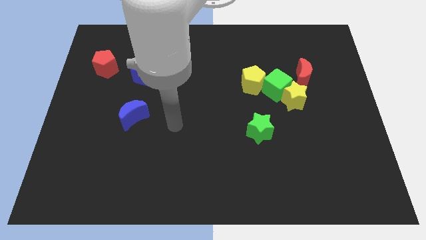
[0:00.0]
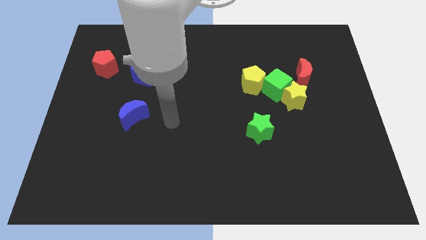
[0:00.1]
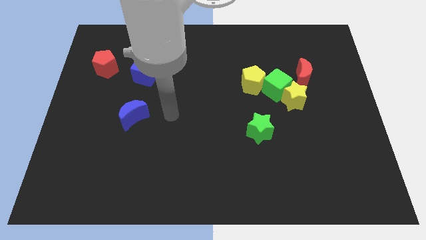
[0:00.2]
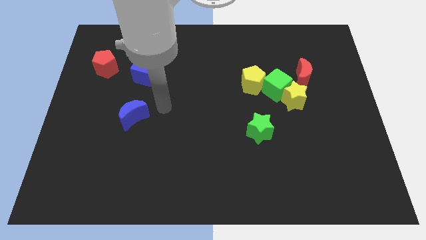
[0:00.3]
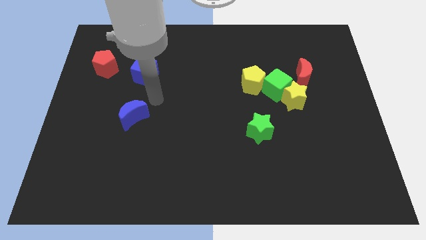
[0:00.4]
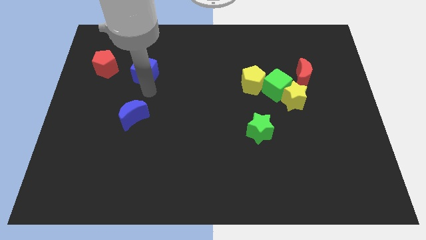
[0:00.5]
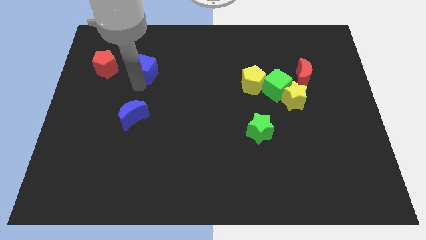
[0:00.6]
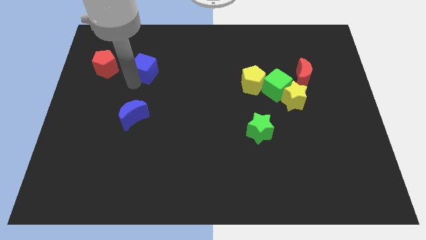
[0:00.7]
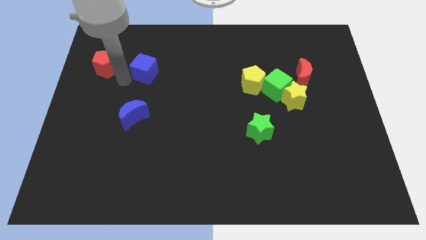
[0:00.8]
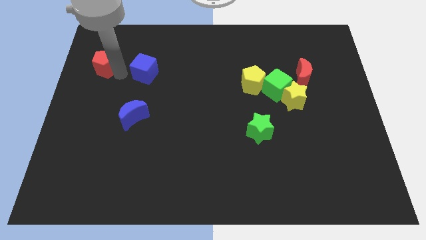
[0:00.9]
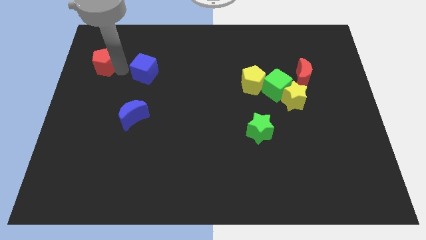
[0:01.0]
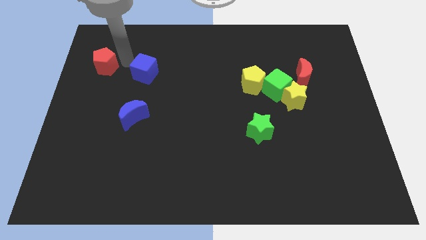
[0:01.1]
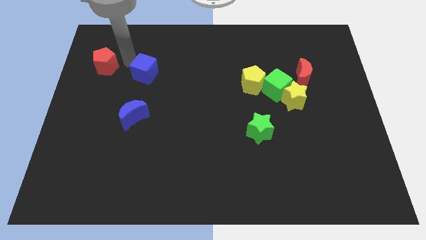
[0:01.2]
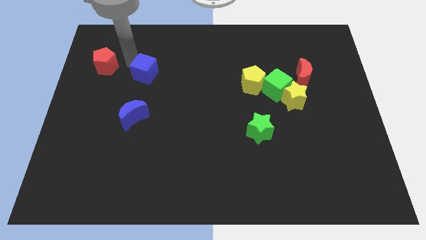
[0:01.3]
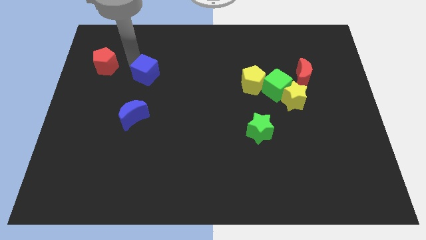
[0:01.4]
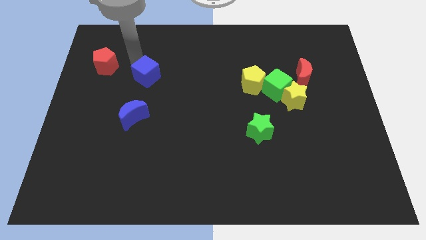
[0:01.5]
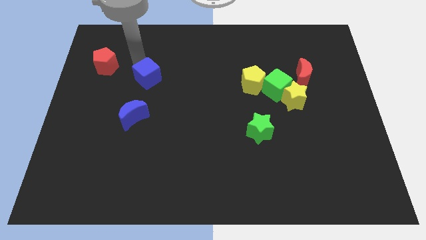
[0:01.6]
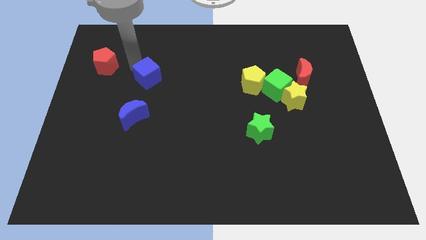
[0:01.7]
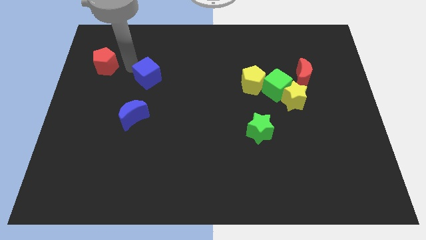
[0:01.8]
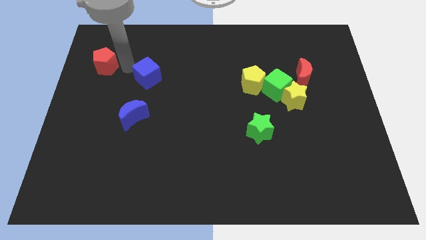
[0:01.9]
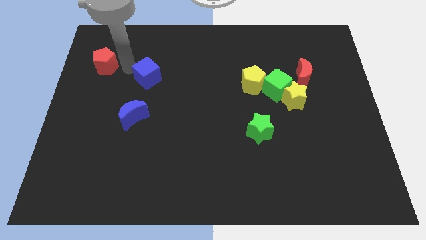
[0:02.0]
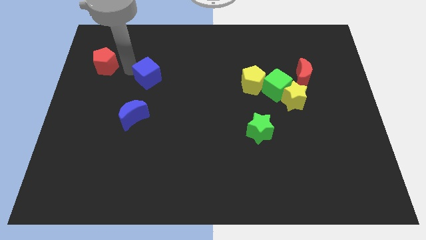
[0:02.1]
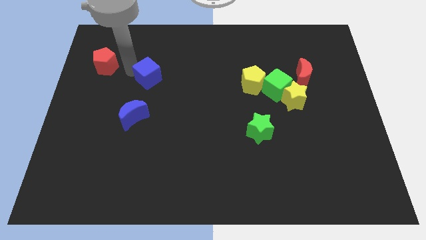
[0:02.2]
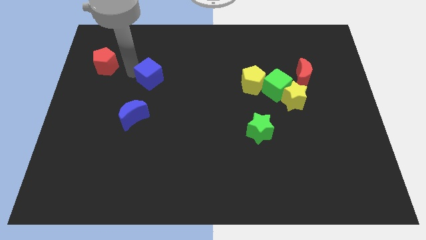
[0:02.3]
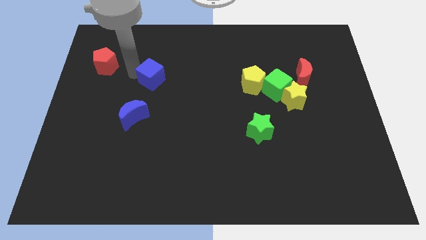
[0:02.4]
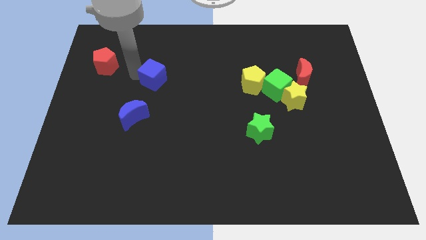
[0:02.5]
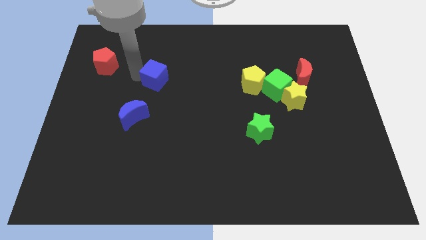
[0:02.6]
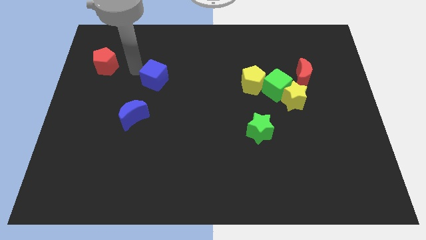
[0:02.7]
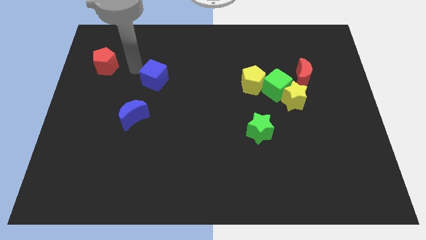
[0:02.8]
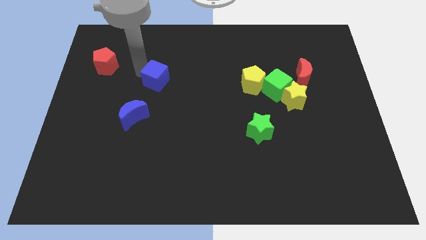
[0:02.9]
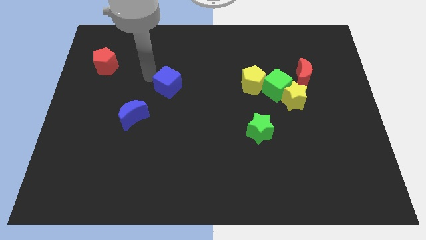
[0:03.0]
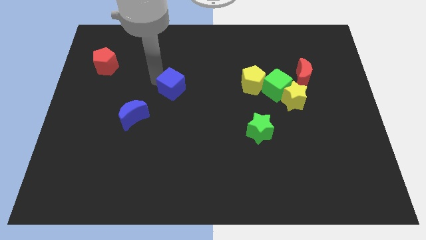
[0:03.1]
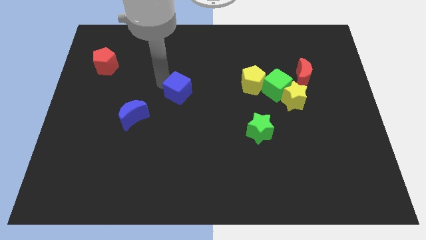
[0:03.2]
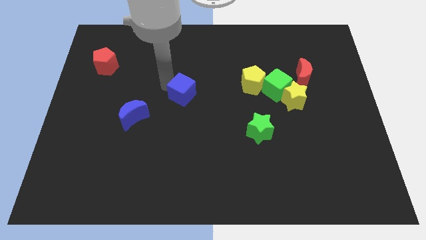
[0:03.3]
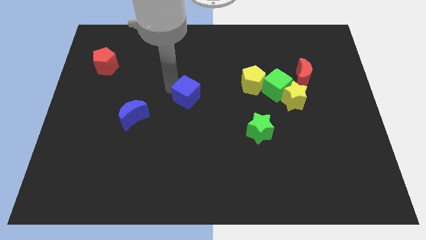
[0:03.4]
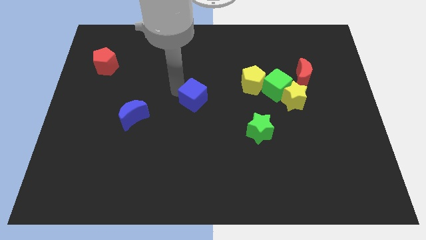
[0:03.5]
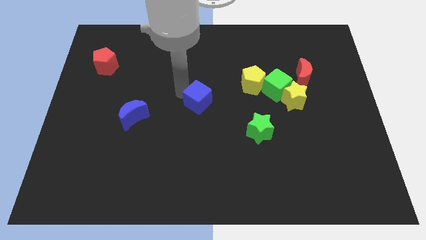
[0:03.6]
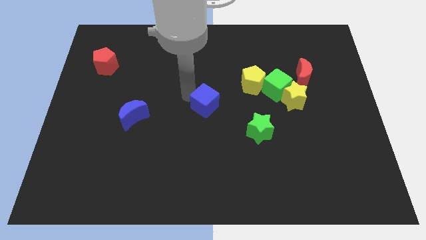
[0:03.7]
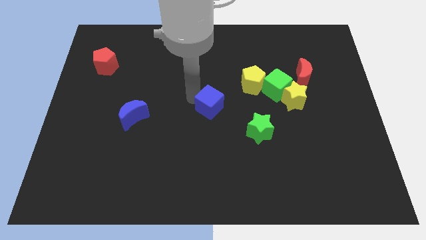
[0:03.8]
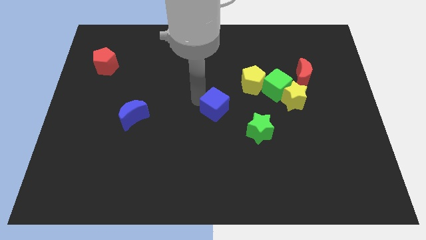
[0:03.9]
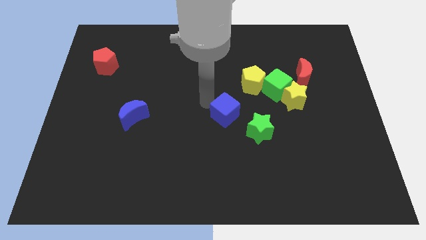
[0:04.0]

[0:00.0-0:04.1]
push the blue cube downwards and right

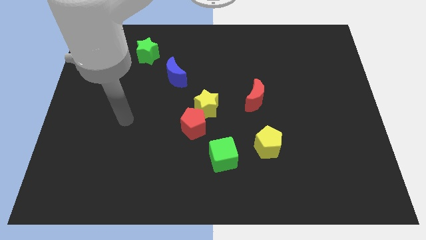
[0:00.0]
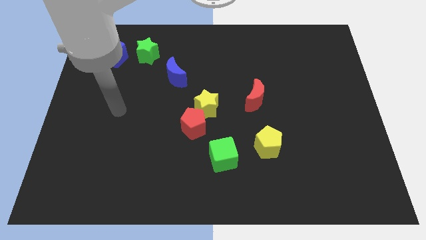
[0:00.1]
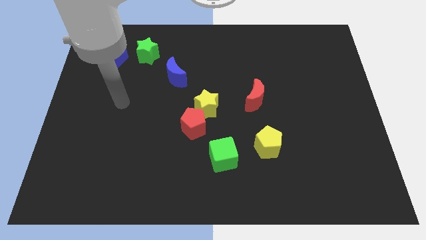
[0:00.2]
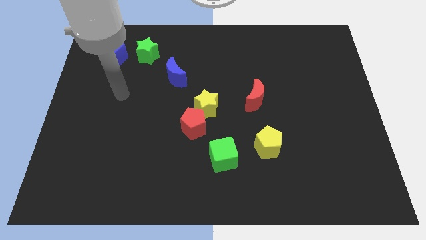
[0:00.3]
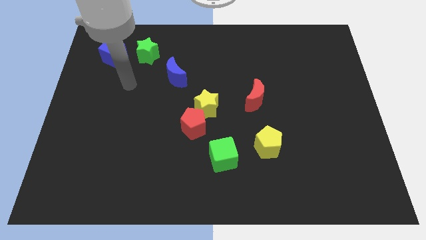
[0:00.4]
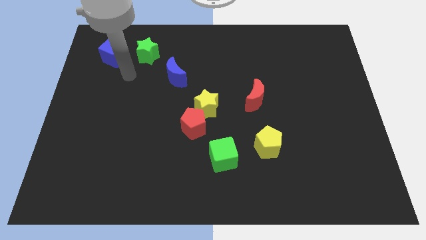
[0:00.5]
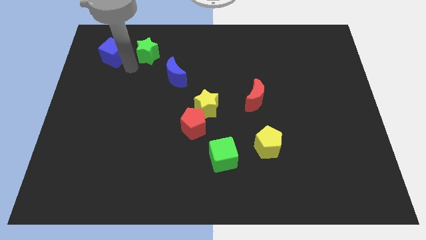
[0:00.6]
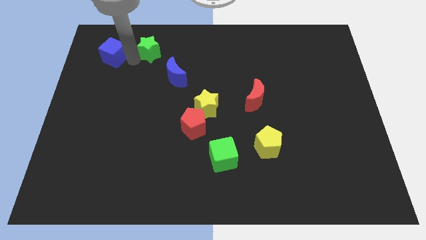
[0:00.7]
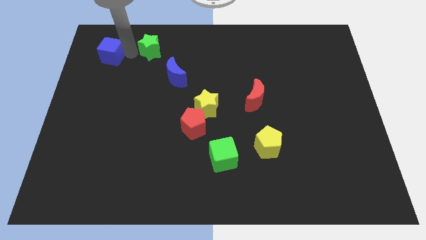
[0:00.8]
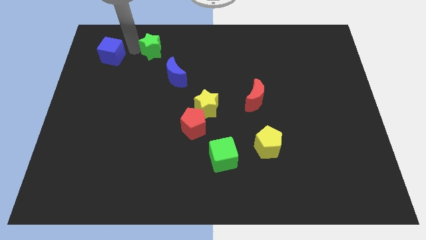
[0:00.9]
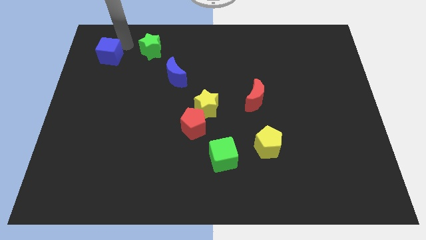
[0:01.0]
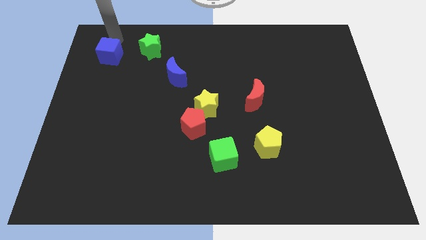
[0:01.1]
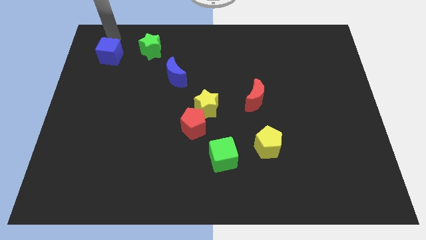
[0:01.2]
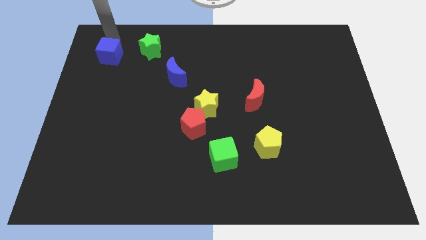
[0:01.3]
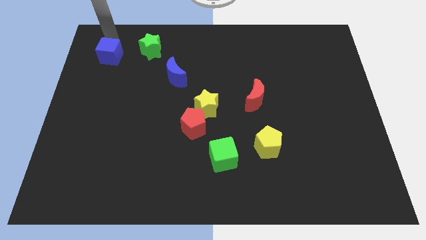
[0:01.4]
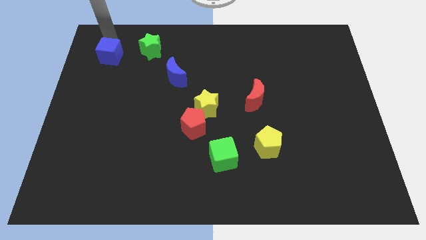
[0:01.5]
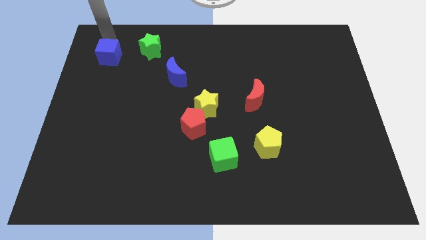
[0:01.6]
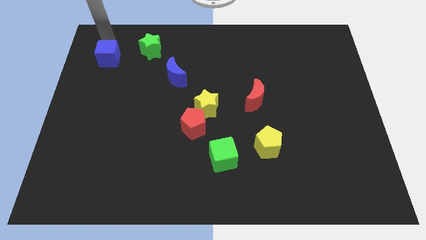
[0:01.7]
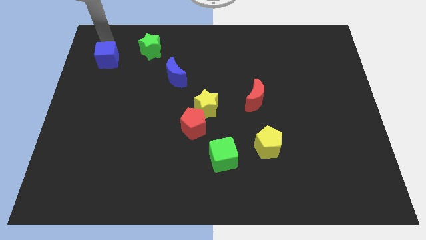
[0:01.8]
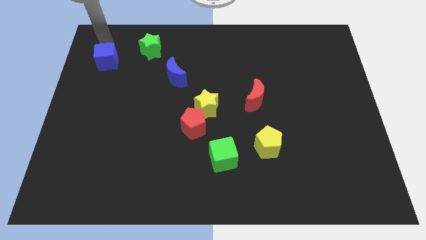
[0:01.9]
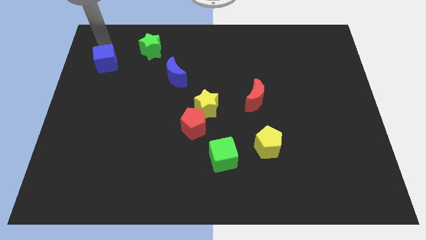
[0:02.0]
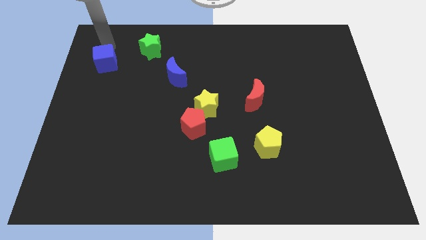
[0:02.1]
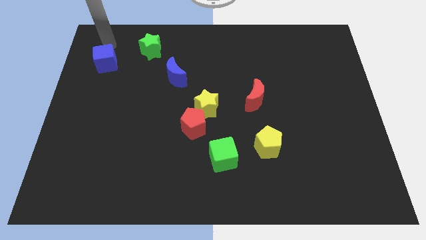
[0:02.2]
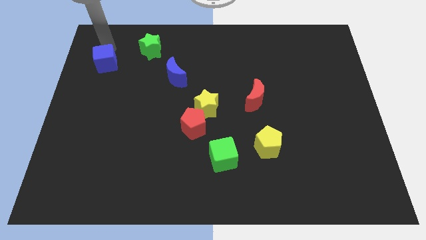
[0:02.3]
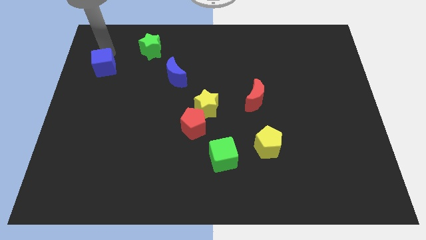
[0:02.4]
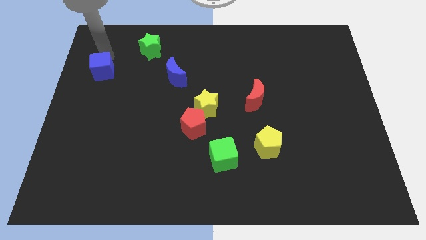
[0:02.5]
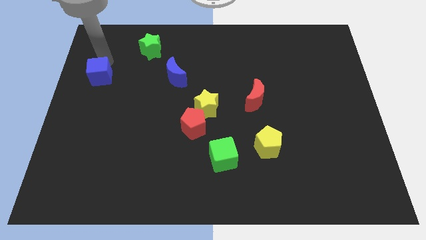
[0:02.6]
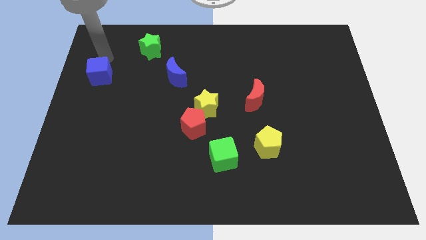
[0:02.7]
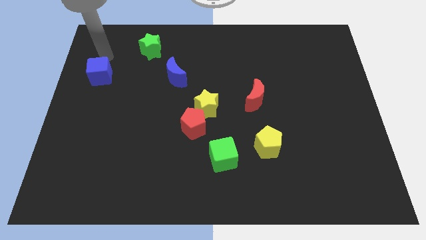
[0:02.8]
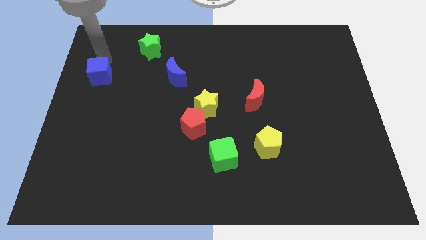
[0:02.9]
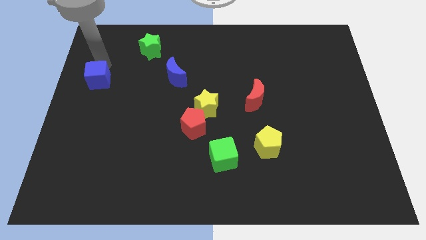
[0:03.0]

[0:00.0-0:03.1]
slide the blue cube down somewhat

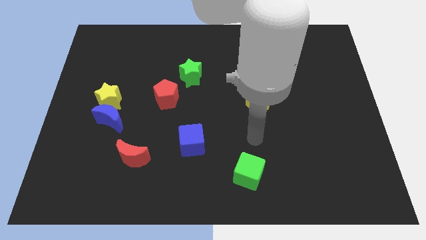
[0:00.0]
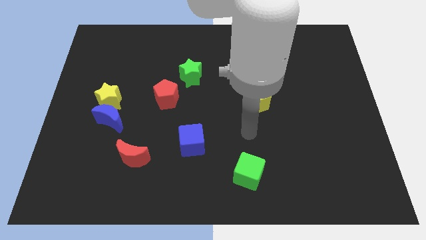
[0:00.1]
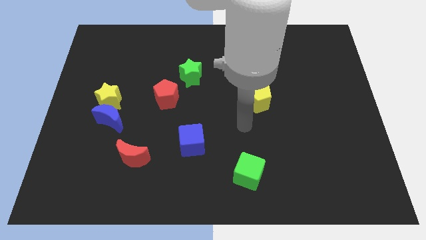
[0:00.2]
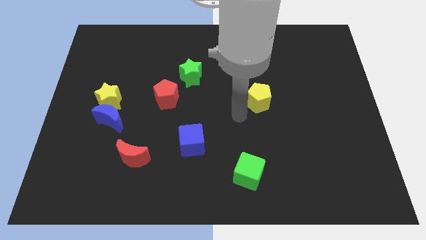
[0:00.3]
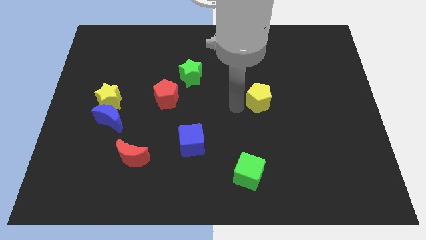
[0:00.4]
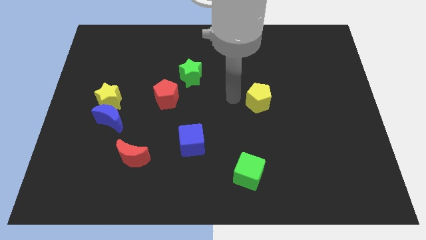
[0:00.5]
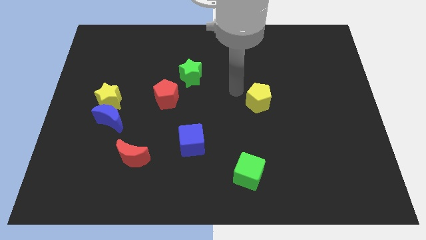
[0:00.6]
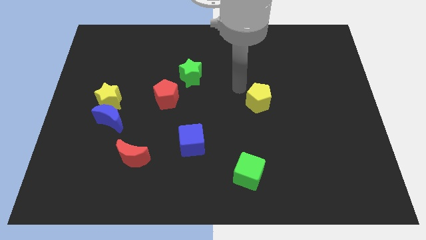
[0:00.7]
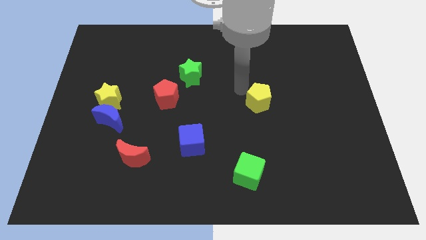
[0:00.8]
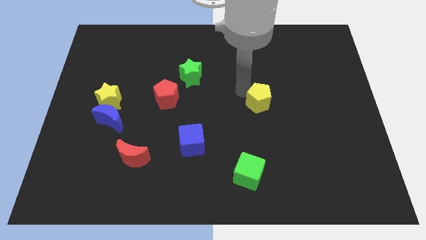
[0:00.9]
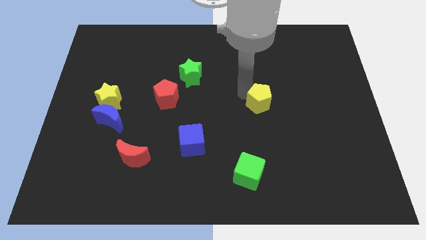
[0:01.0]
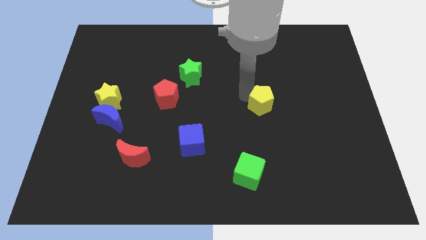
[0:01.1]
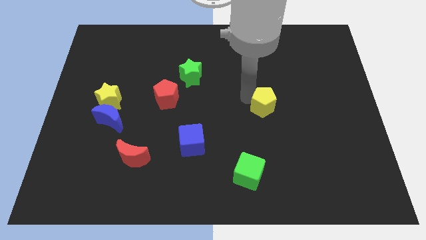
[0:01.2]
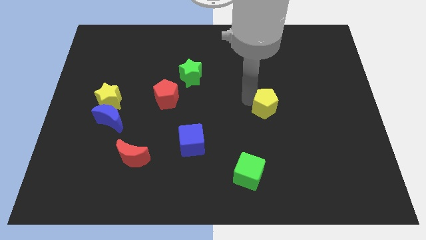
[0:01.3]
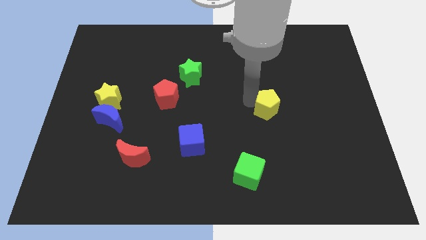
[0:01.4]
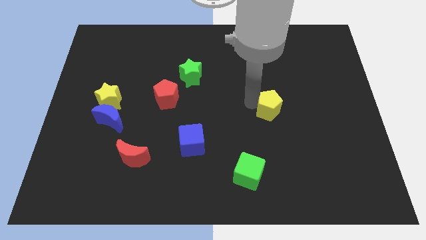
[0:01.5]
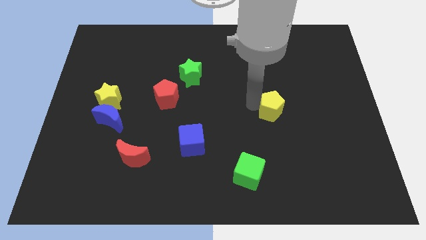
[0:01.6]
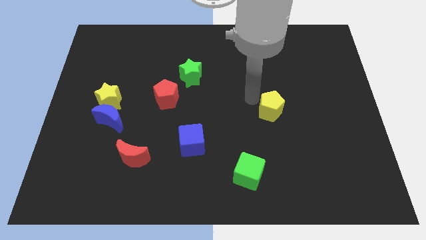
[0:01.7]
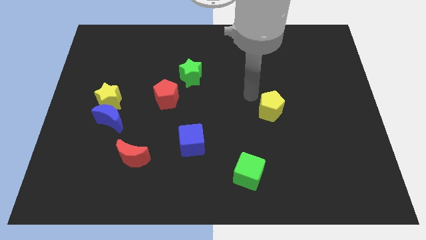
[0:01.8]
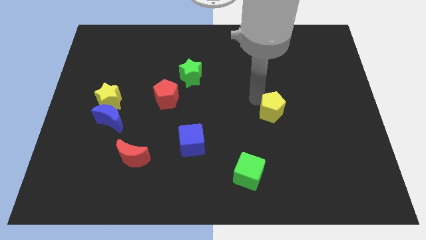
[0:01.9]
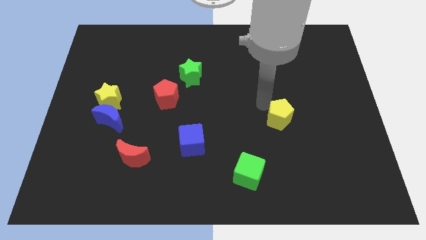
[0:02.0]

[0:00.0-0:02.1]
slightly move the yellow pentagon down and to the right
